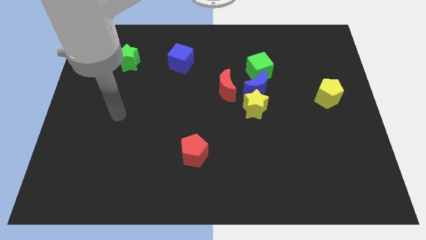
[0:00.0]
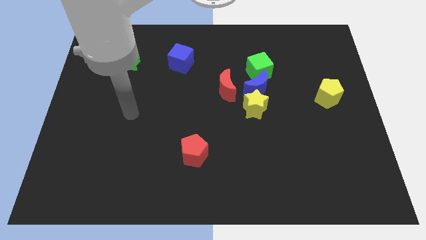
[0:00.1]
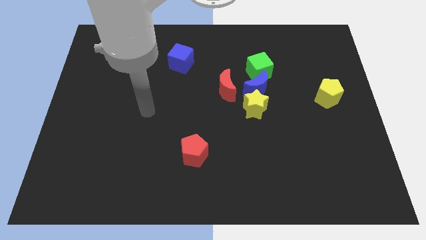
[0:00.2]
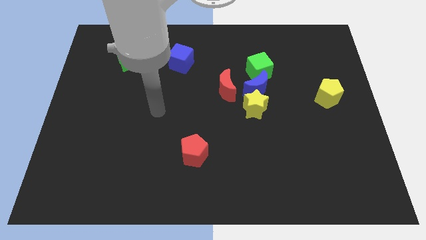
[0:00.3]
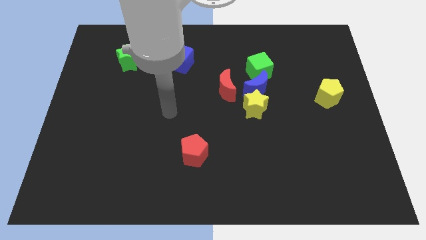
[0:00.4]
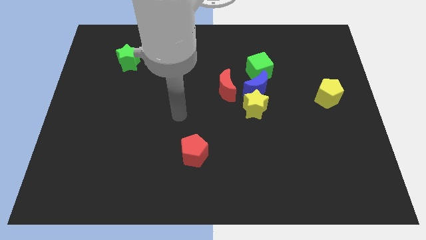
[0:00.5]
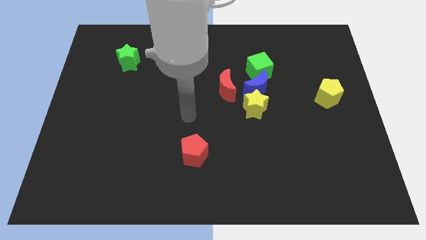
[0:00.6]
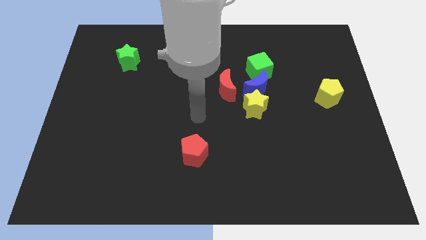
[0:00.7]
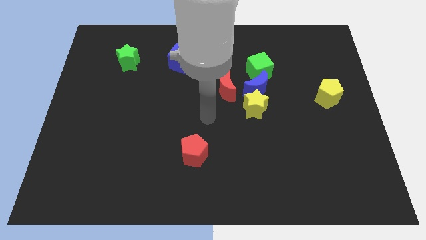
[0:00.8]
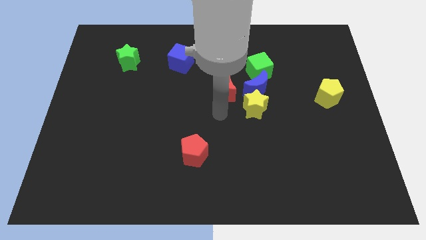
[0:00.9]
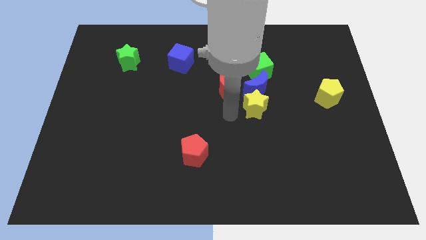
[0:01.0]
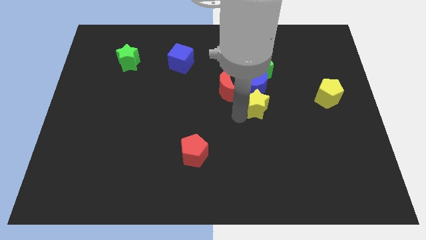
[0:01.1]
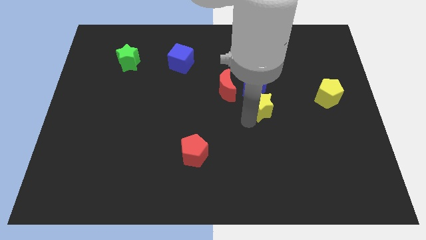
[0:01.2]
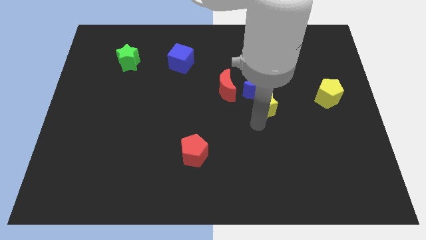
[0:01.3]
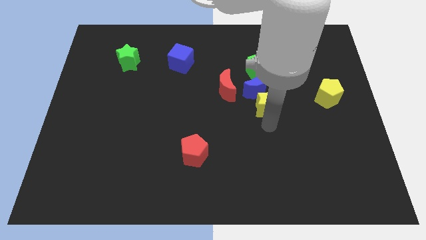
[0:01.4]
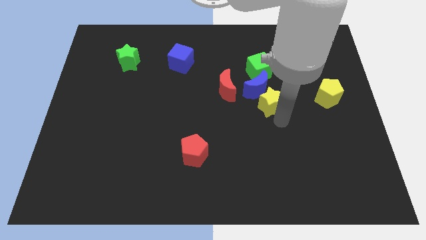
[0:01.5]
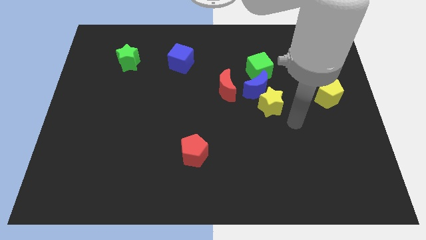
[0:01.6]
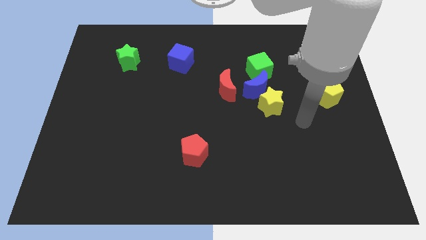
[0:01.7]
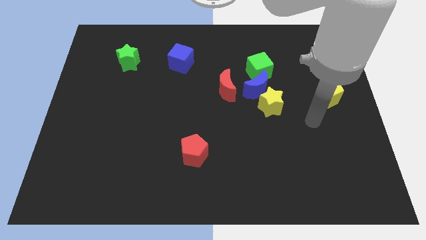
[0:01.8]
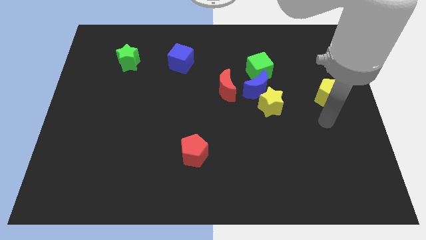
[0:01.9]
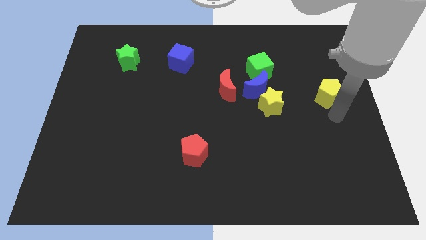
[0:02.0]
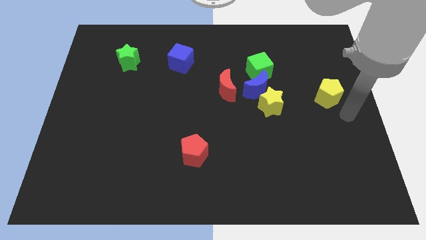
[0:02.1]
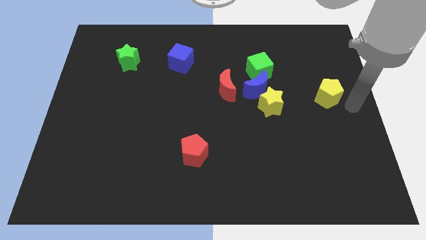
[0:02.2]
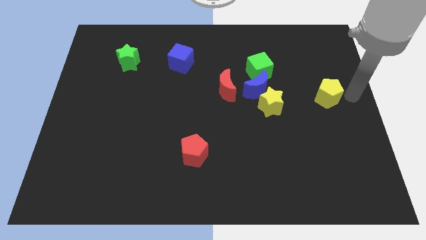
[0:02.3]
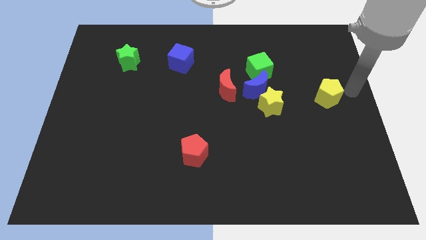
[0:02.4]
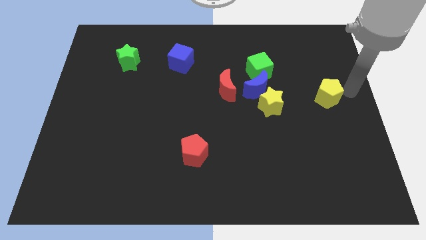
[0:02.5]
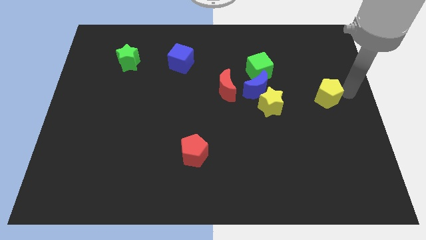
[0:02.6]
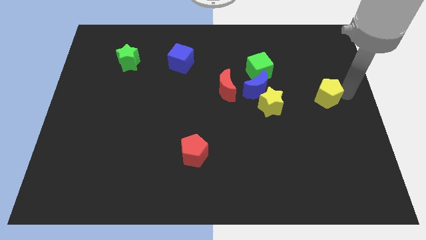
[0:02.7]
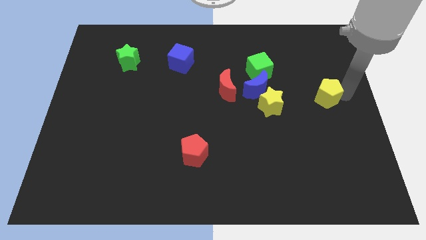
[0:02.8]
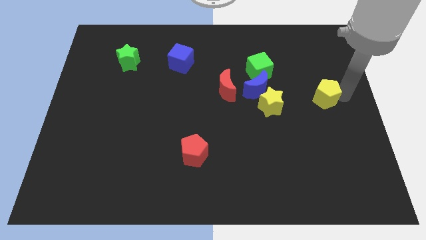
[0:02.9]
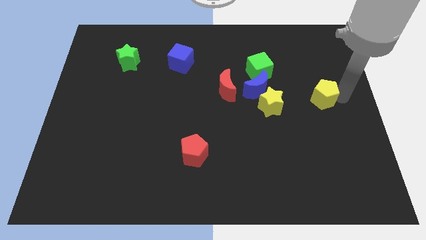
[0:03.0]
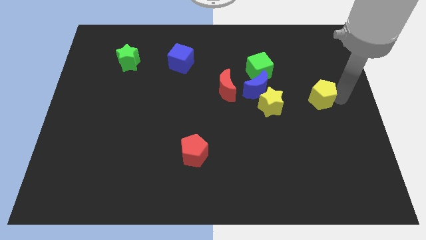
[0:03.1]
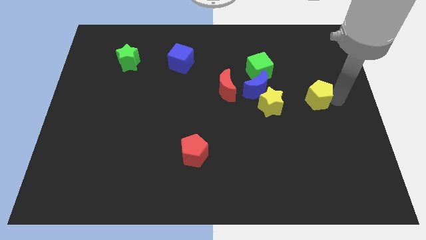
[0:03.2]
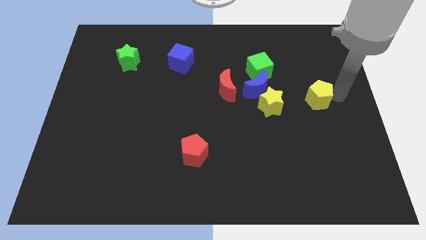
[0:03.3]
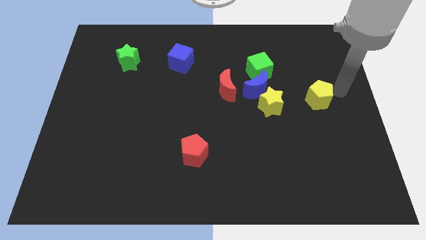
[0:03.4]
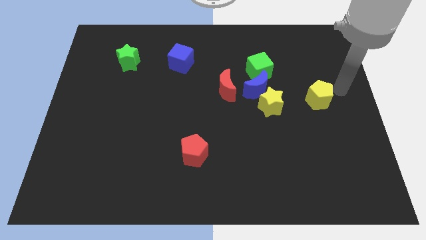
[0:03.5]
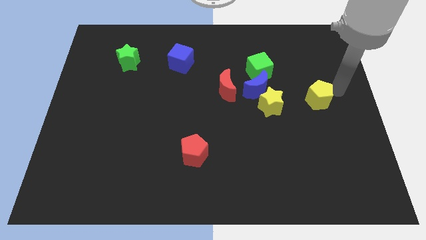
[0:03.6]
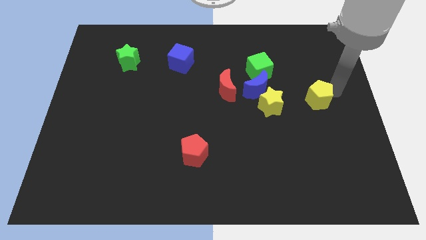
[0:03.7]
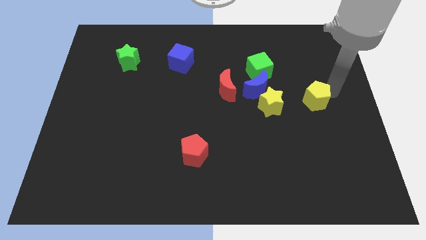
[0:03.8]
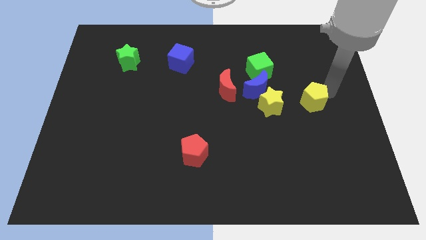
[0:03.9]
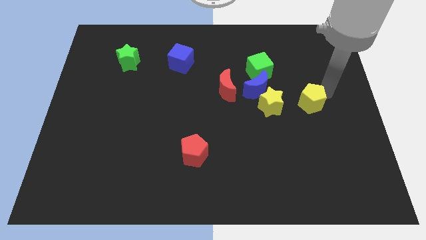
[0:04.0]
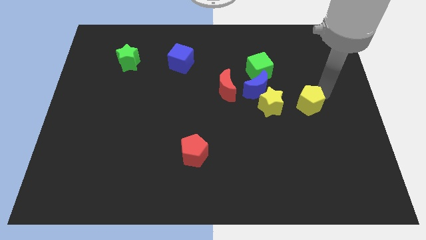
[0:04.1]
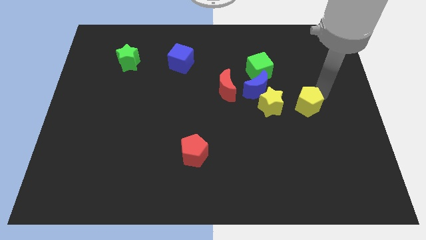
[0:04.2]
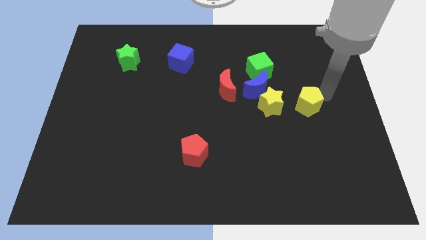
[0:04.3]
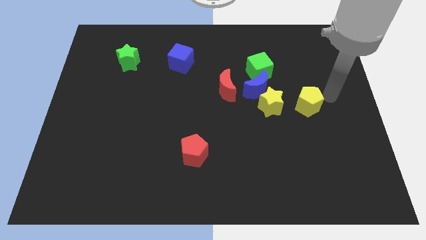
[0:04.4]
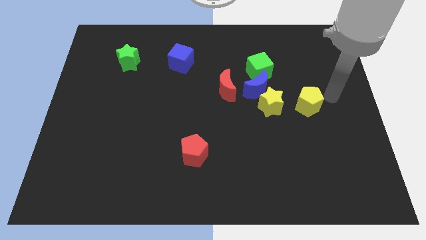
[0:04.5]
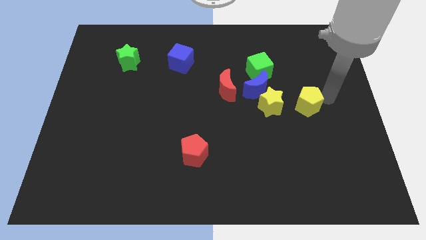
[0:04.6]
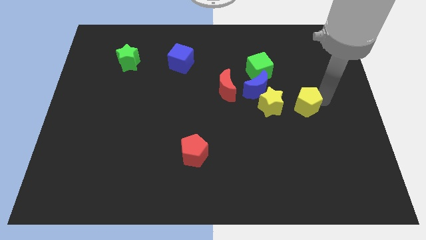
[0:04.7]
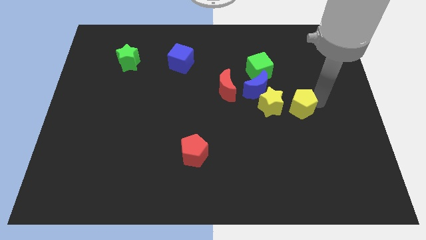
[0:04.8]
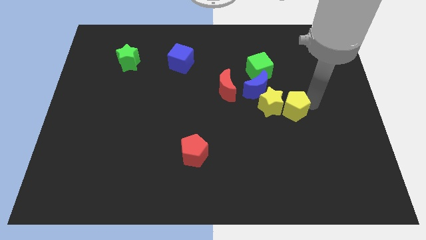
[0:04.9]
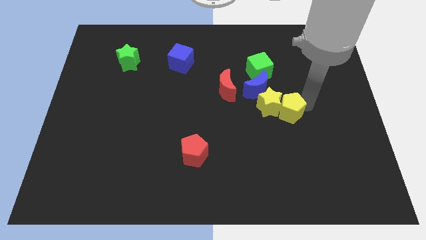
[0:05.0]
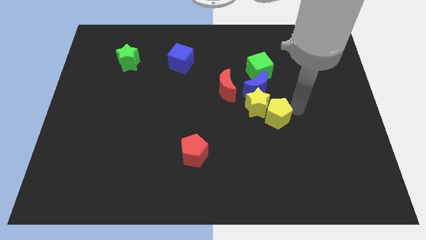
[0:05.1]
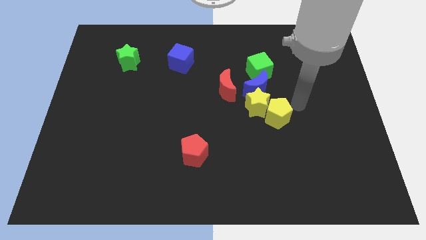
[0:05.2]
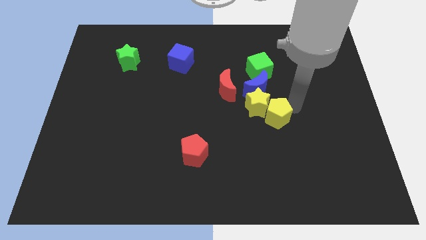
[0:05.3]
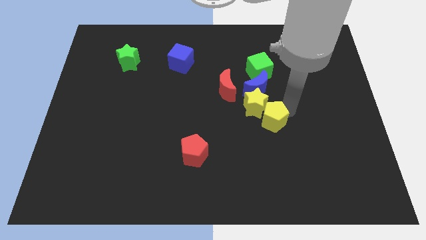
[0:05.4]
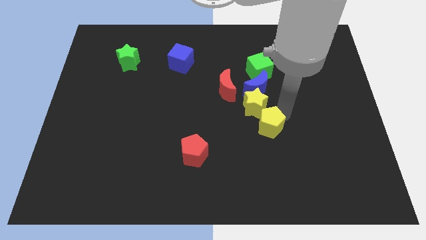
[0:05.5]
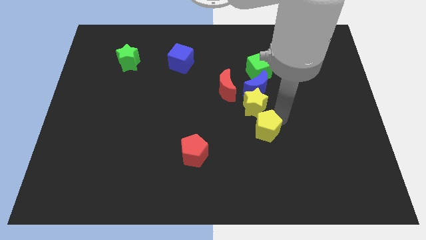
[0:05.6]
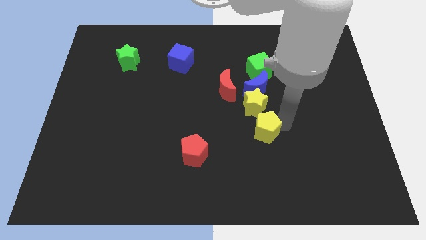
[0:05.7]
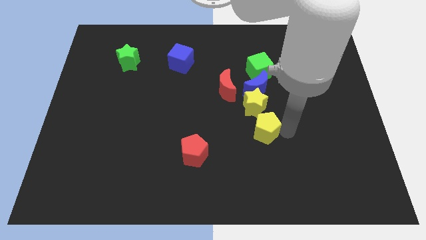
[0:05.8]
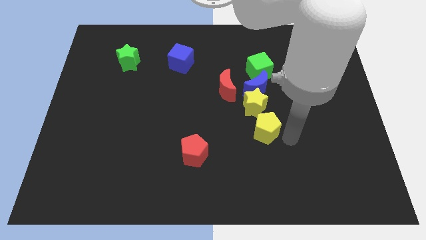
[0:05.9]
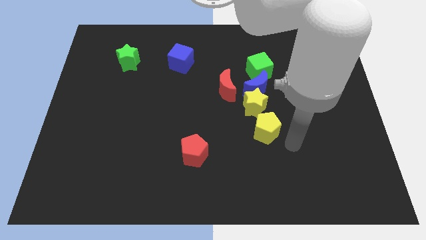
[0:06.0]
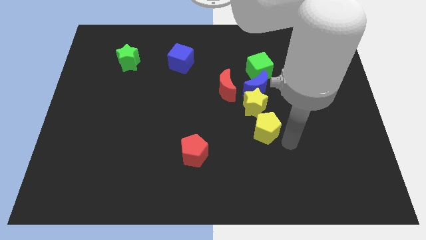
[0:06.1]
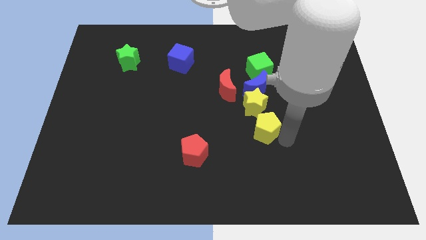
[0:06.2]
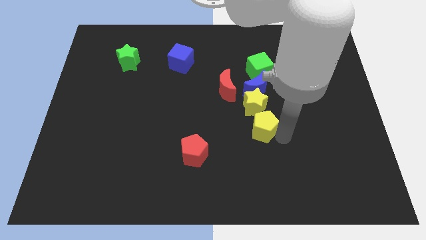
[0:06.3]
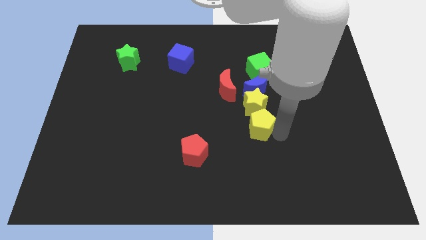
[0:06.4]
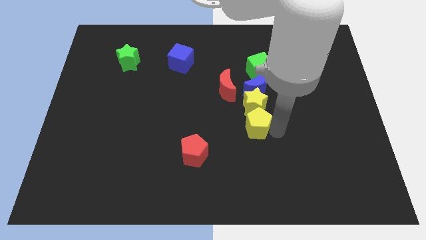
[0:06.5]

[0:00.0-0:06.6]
slide the yellow pentagon to the middle

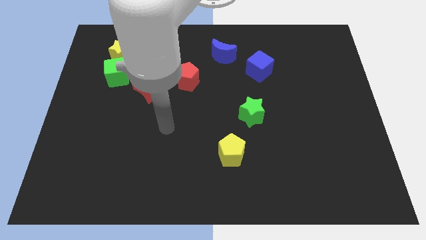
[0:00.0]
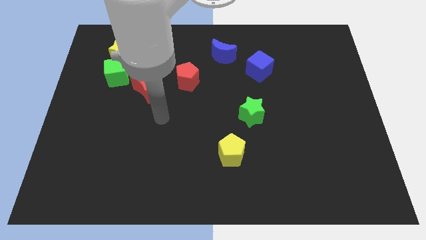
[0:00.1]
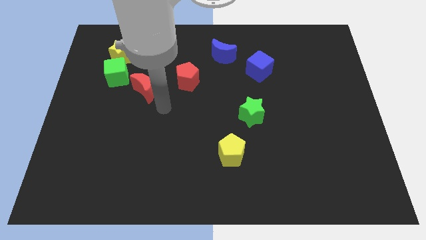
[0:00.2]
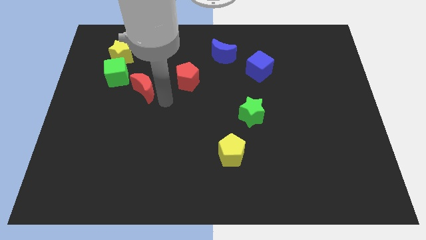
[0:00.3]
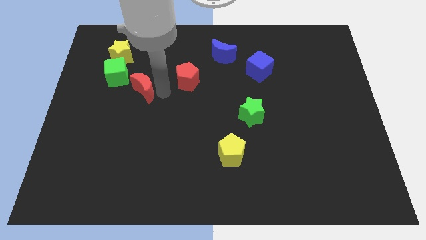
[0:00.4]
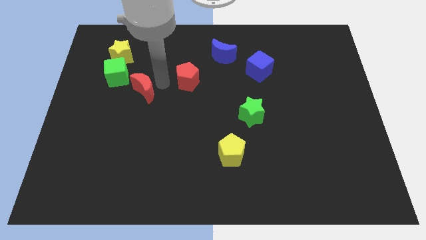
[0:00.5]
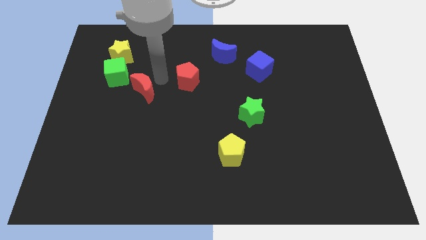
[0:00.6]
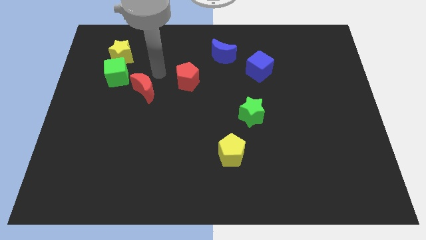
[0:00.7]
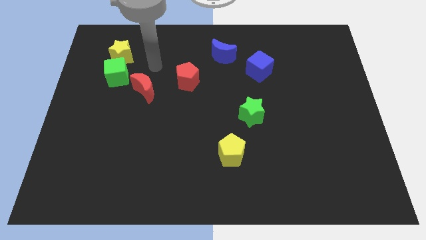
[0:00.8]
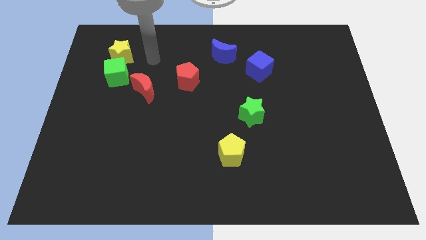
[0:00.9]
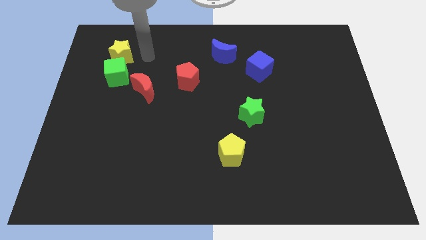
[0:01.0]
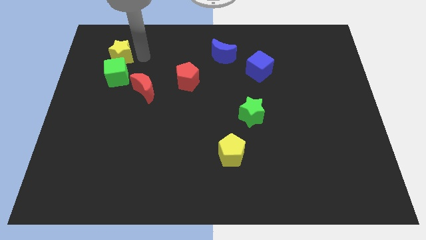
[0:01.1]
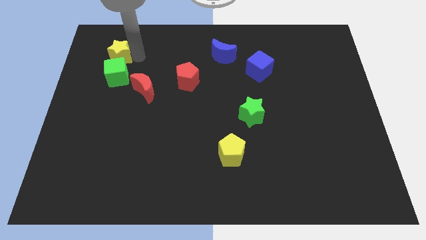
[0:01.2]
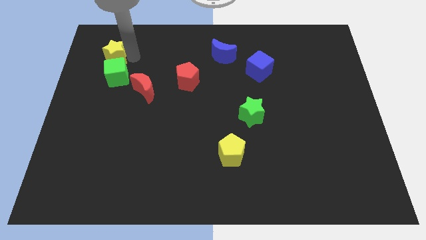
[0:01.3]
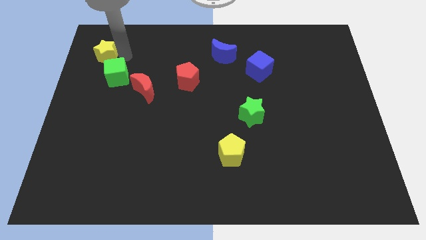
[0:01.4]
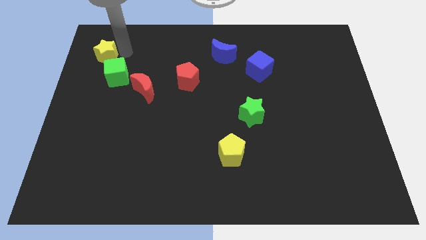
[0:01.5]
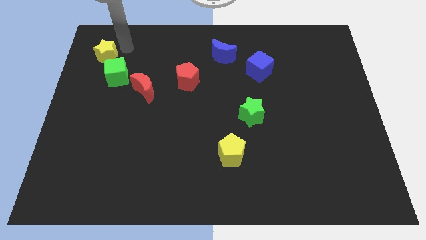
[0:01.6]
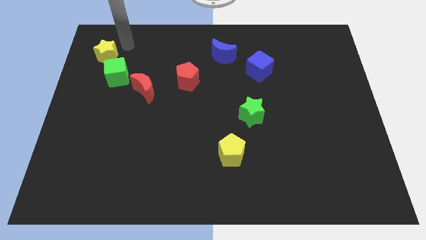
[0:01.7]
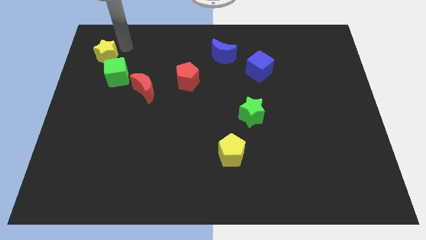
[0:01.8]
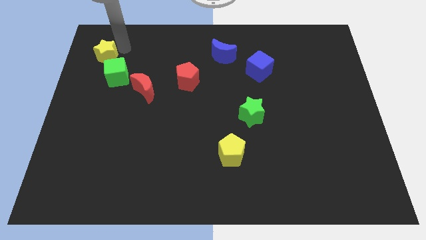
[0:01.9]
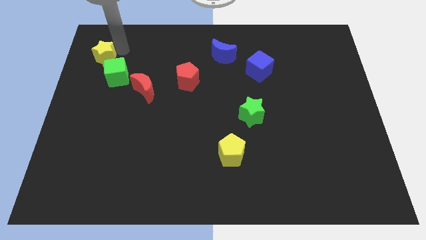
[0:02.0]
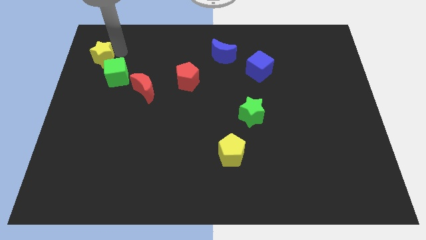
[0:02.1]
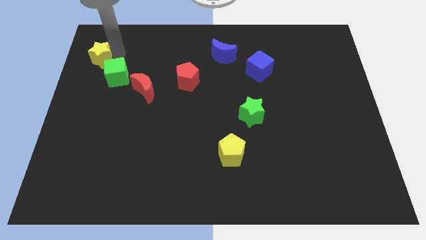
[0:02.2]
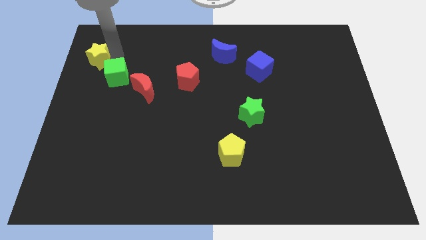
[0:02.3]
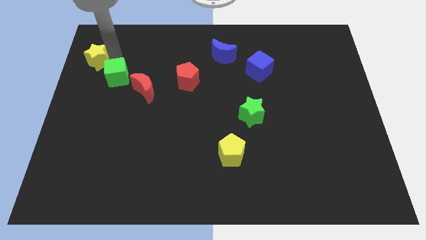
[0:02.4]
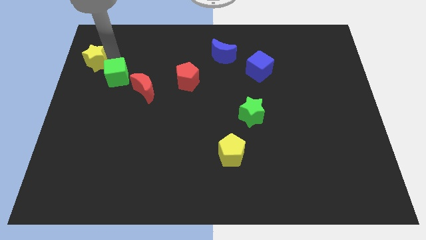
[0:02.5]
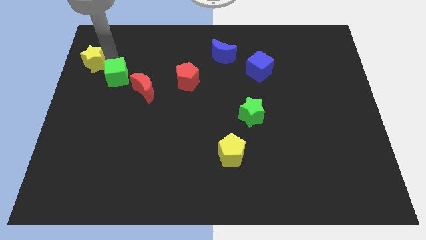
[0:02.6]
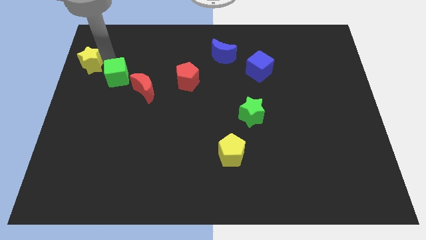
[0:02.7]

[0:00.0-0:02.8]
move the yellow star to the left side of the board
